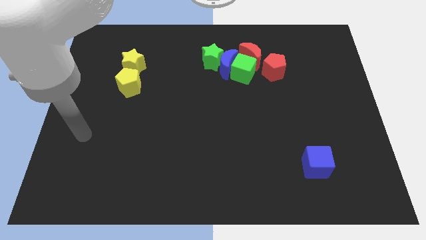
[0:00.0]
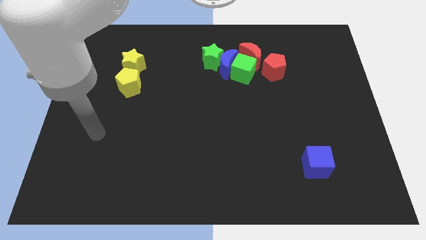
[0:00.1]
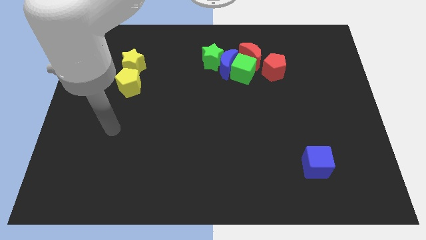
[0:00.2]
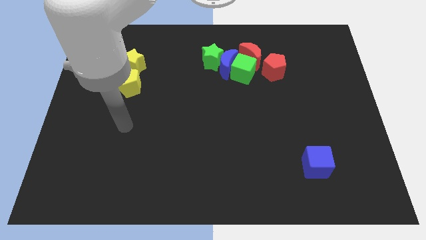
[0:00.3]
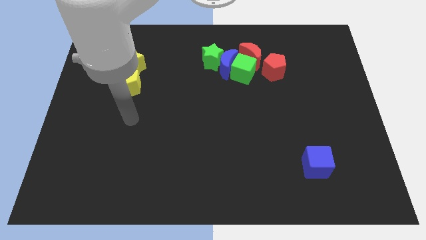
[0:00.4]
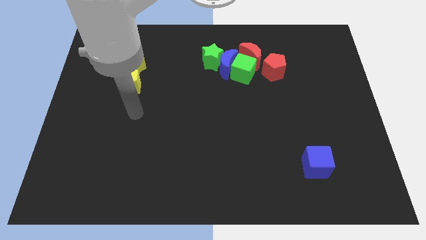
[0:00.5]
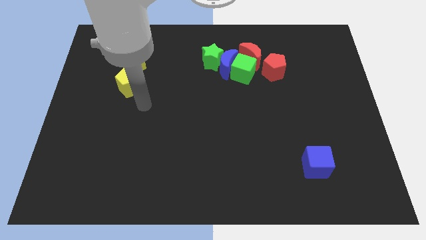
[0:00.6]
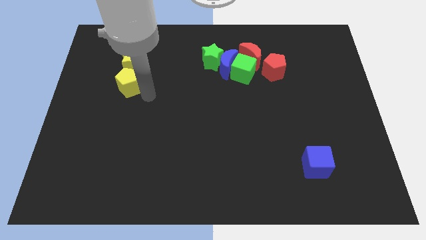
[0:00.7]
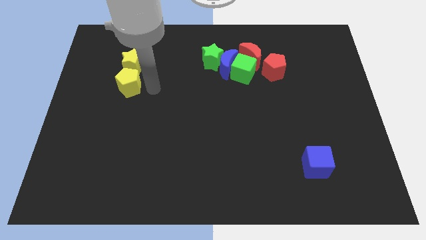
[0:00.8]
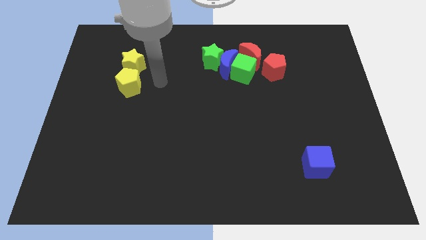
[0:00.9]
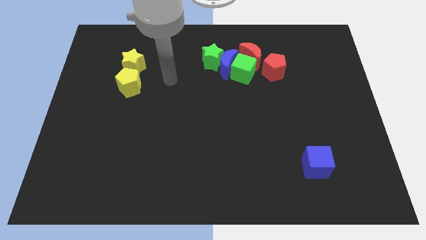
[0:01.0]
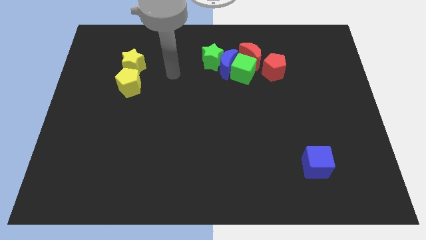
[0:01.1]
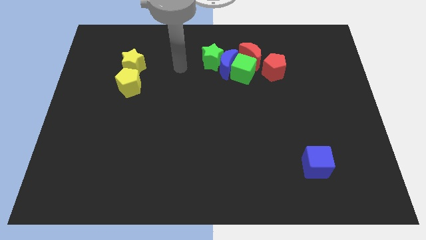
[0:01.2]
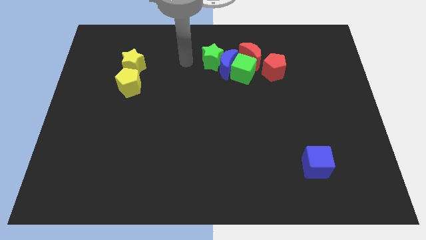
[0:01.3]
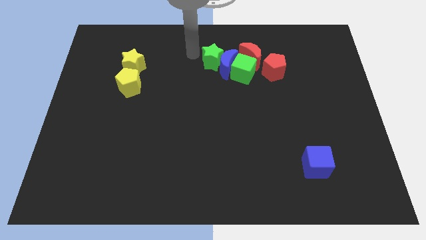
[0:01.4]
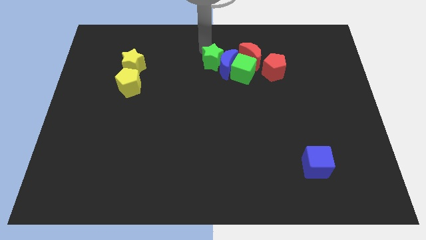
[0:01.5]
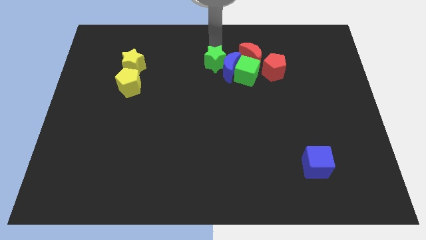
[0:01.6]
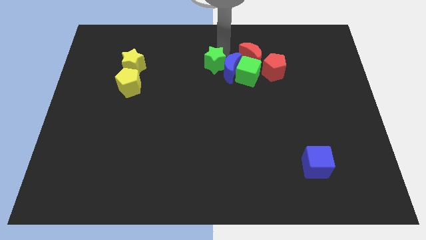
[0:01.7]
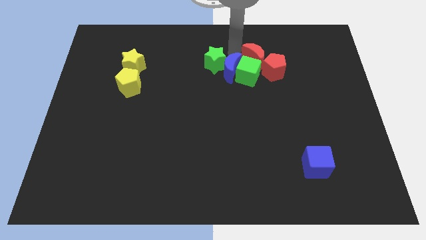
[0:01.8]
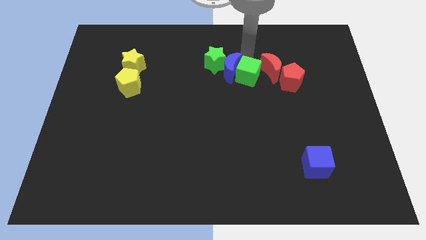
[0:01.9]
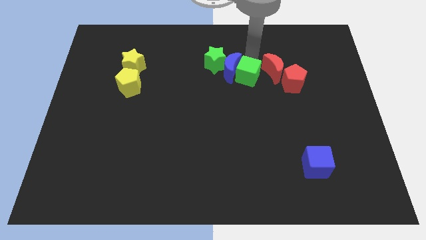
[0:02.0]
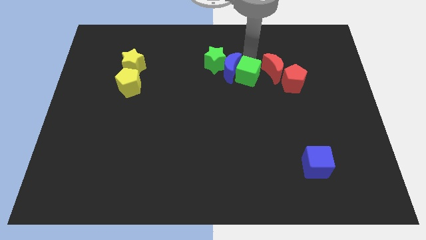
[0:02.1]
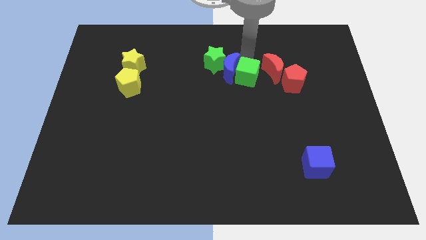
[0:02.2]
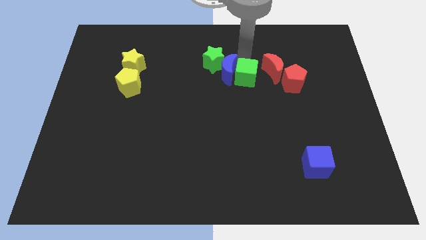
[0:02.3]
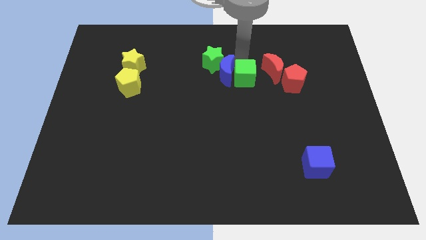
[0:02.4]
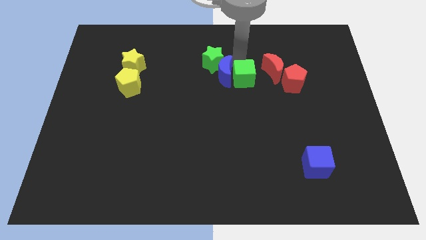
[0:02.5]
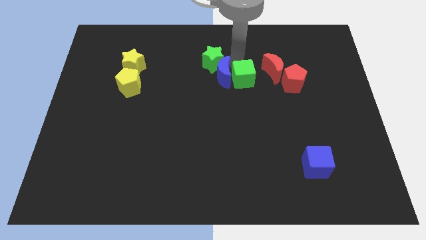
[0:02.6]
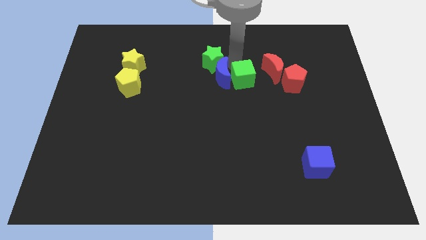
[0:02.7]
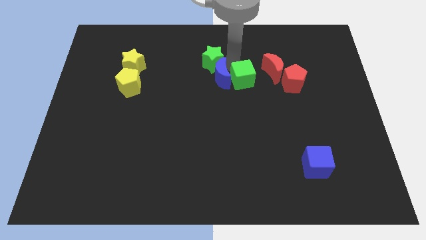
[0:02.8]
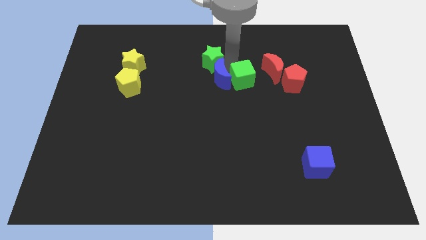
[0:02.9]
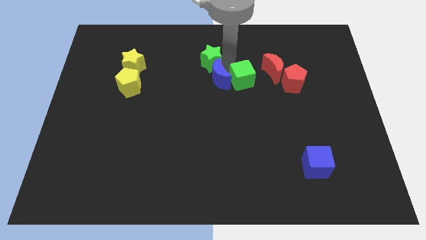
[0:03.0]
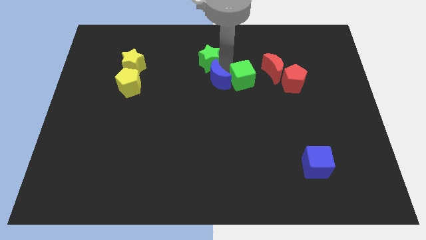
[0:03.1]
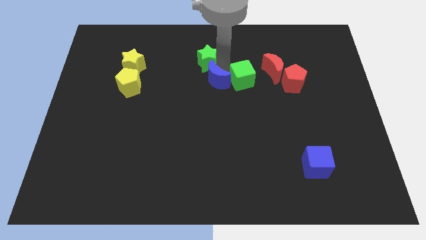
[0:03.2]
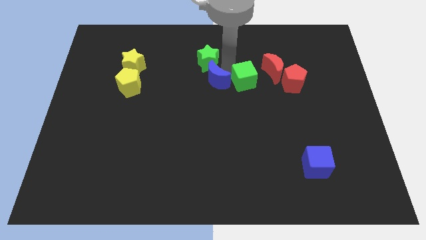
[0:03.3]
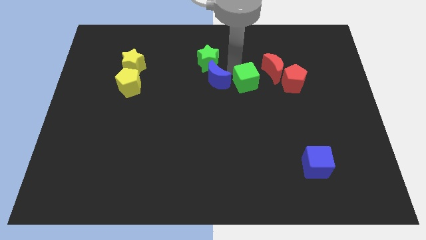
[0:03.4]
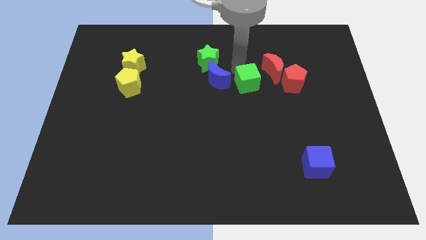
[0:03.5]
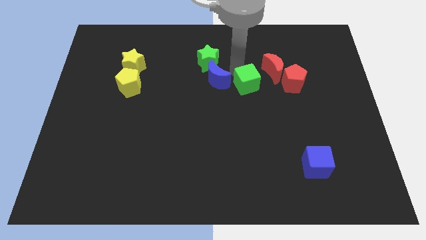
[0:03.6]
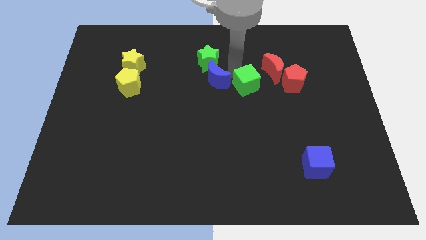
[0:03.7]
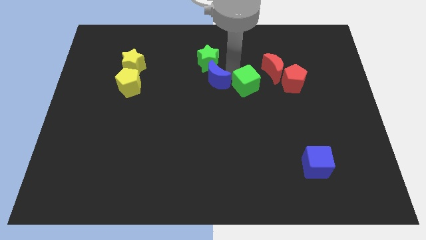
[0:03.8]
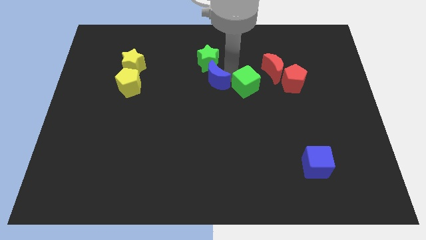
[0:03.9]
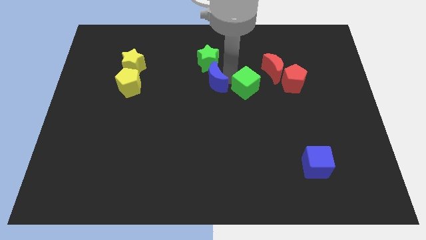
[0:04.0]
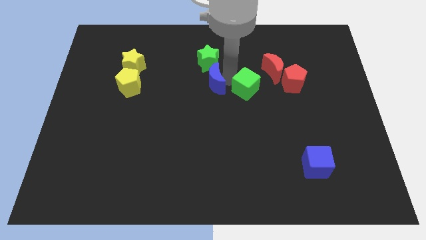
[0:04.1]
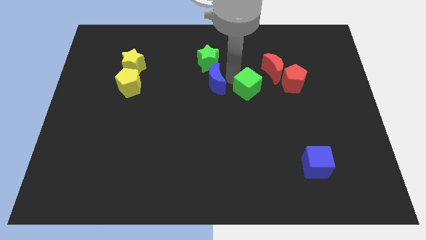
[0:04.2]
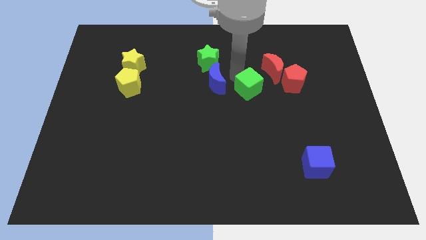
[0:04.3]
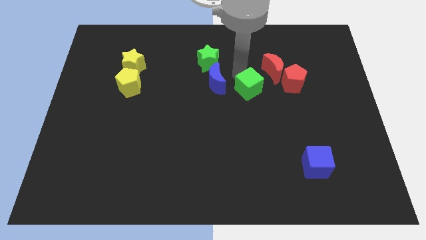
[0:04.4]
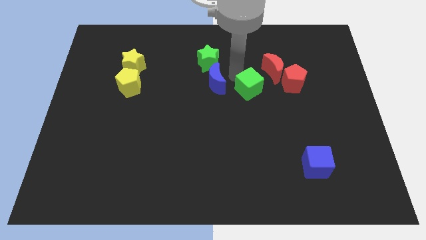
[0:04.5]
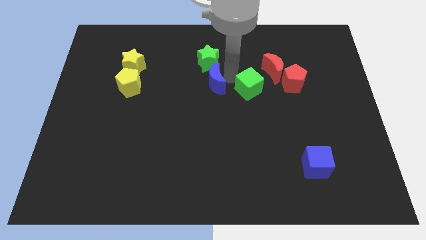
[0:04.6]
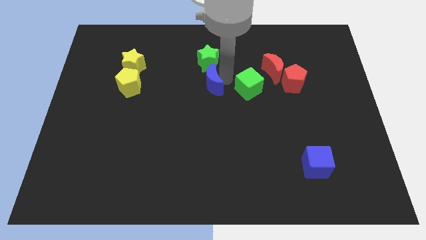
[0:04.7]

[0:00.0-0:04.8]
slightly slide the blue moon down and left

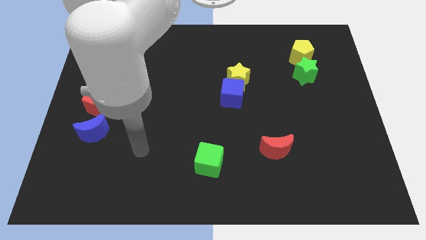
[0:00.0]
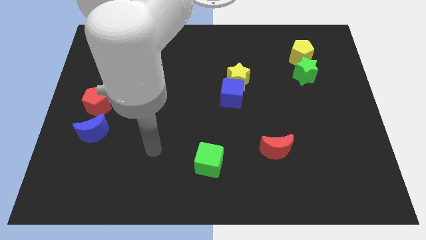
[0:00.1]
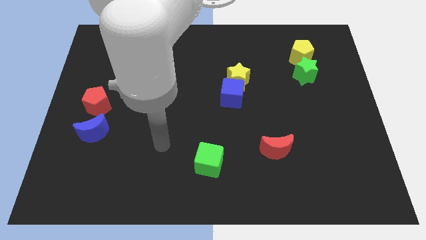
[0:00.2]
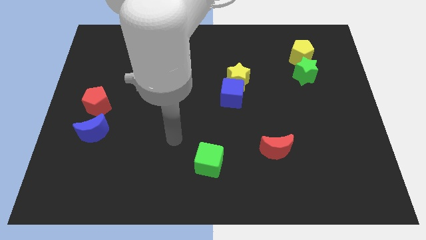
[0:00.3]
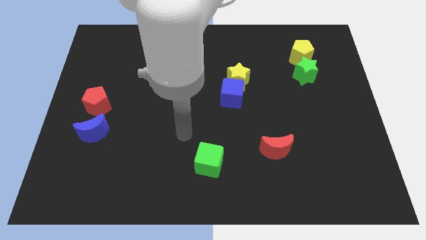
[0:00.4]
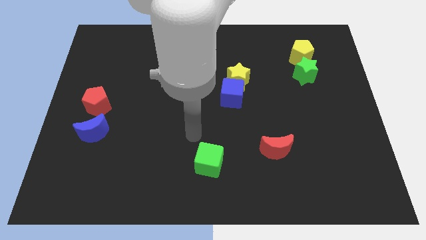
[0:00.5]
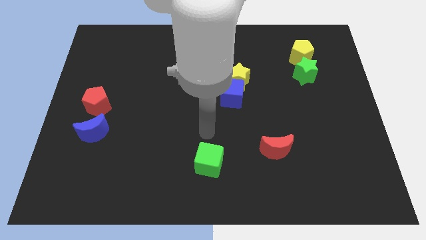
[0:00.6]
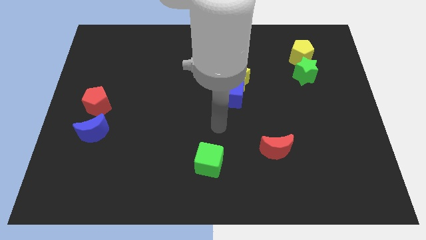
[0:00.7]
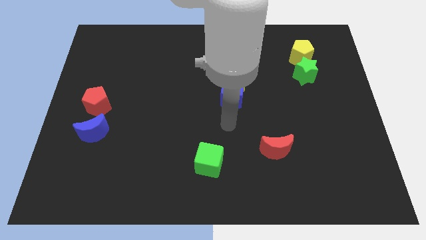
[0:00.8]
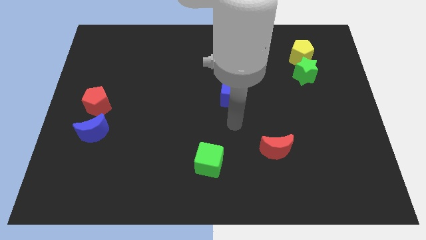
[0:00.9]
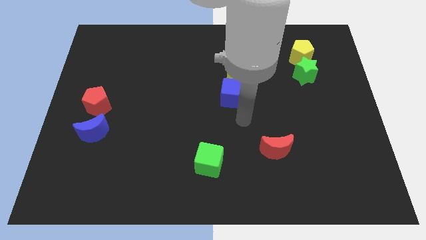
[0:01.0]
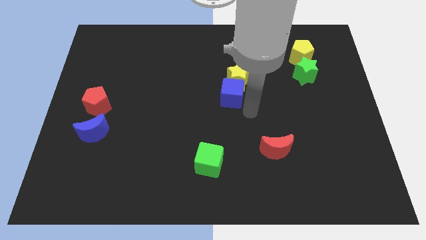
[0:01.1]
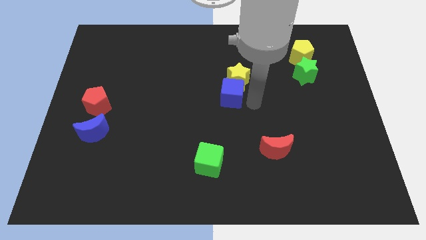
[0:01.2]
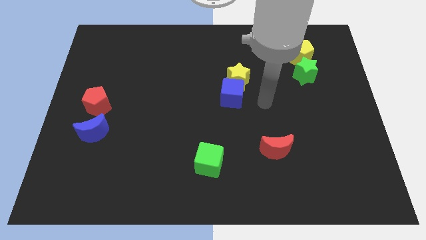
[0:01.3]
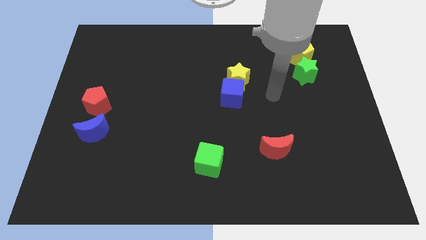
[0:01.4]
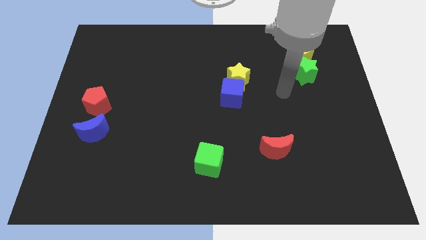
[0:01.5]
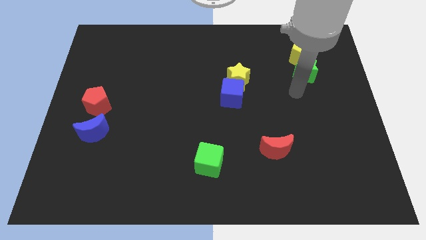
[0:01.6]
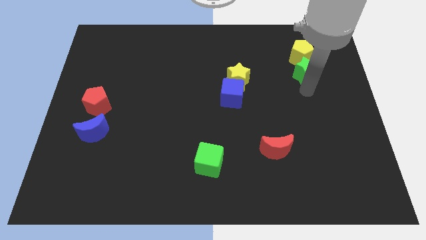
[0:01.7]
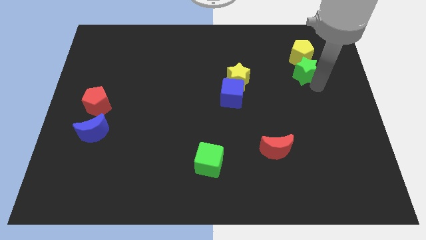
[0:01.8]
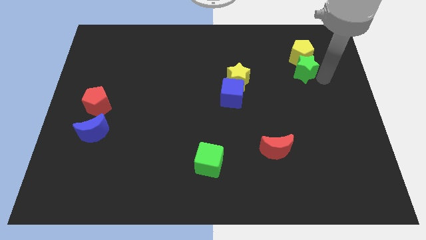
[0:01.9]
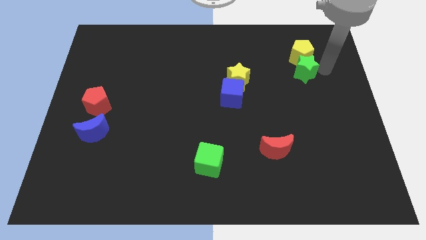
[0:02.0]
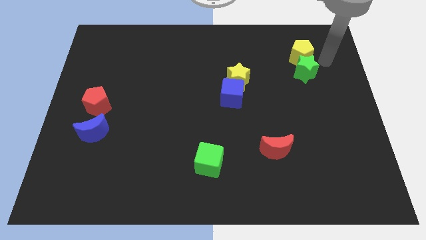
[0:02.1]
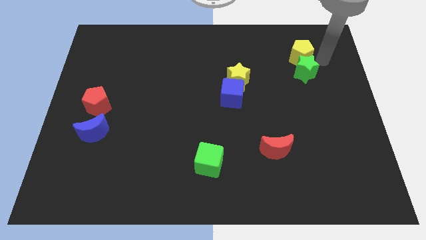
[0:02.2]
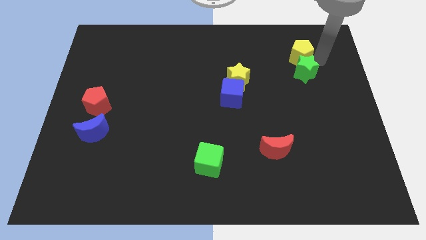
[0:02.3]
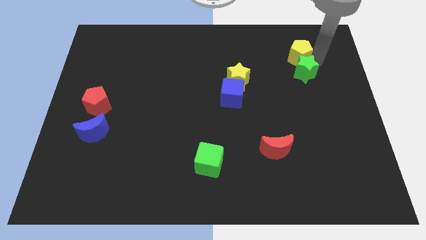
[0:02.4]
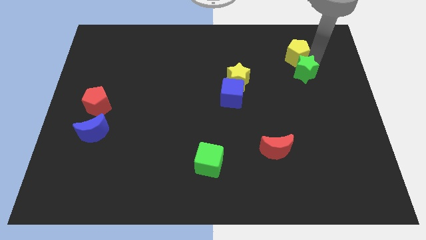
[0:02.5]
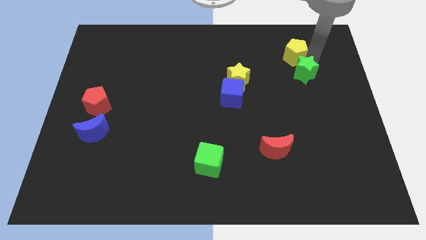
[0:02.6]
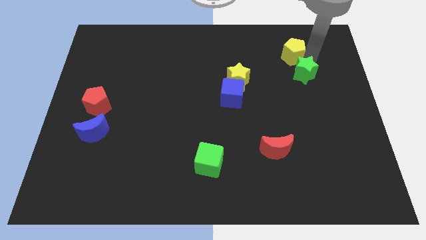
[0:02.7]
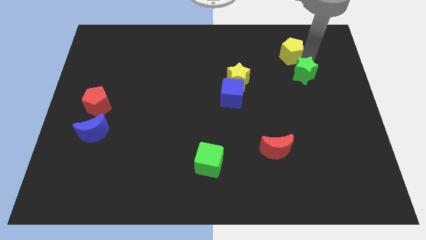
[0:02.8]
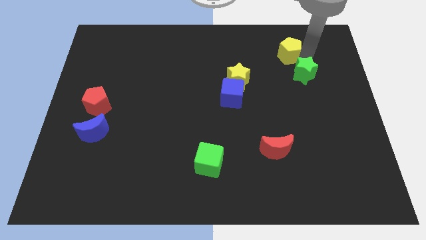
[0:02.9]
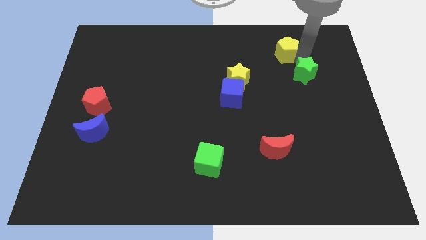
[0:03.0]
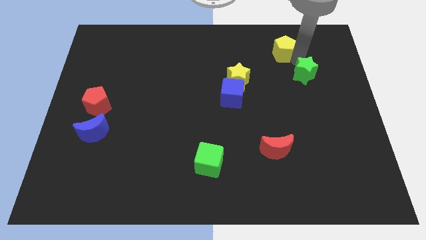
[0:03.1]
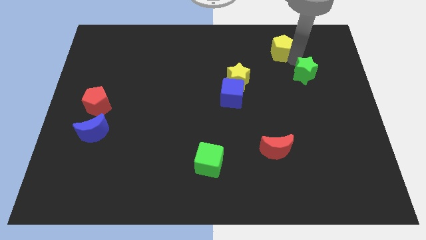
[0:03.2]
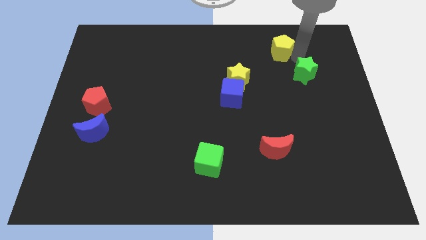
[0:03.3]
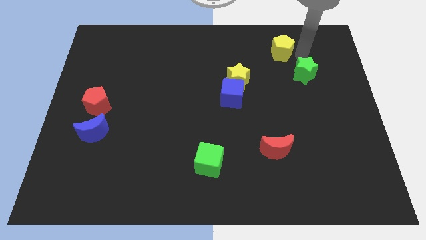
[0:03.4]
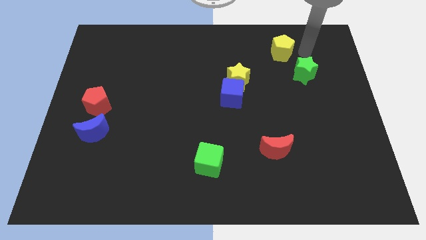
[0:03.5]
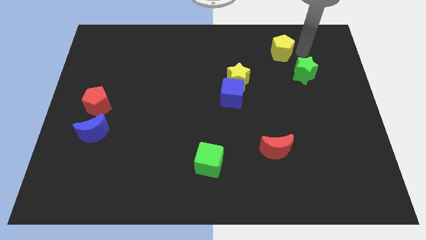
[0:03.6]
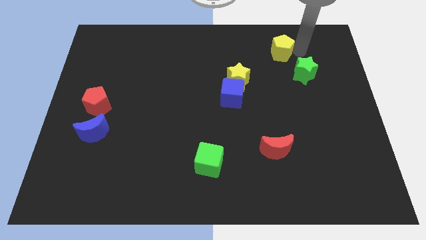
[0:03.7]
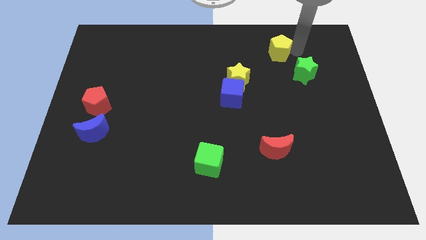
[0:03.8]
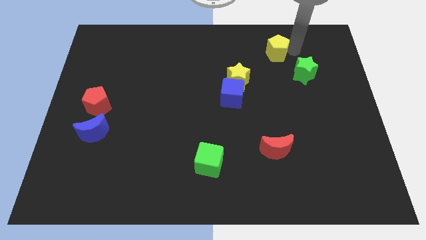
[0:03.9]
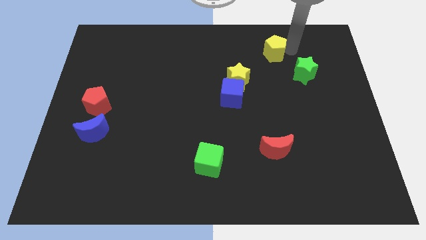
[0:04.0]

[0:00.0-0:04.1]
slightly move the yellow pentagon to the left
